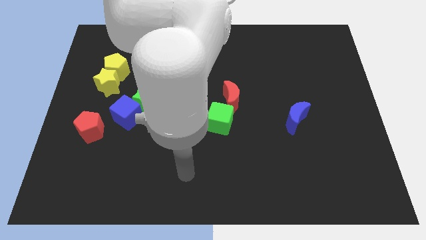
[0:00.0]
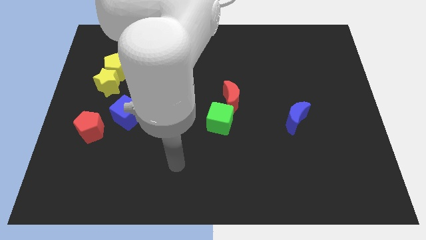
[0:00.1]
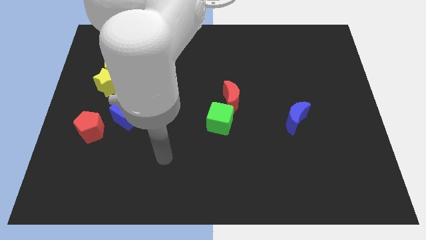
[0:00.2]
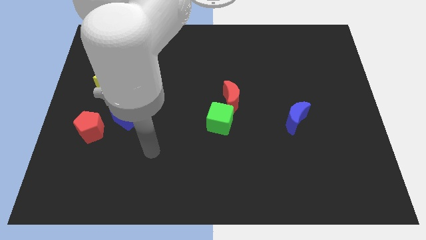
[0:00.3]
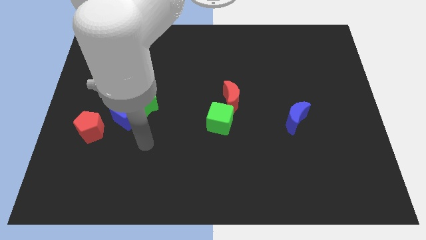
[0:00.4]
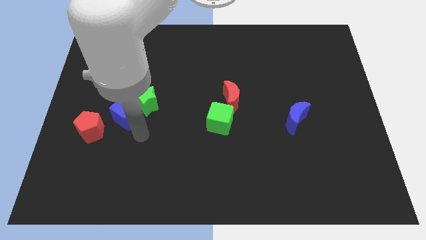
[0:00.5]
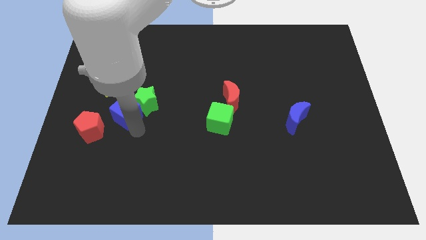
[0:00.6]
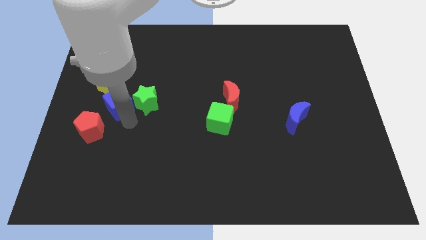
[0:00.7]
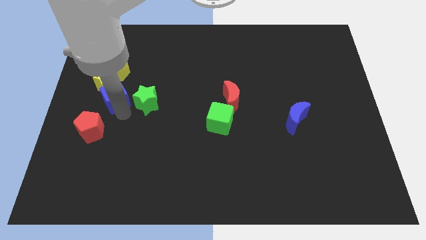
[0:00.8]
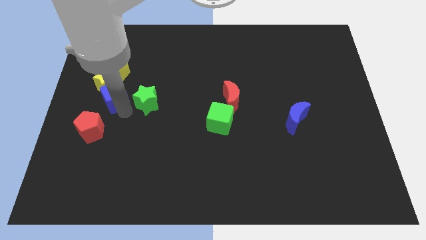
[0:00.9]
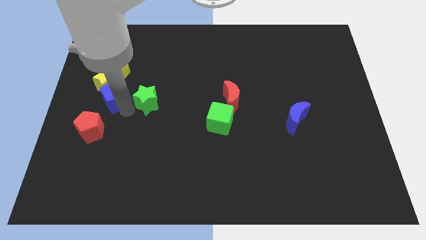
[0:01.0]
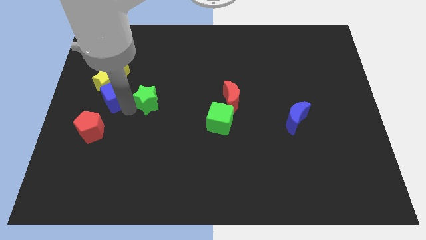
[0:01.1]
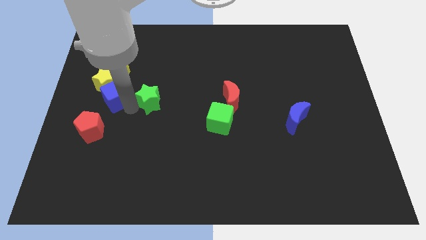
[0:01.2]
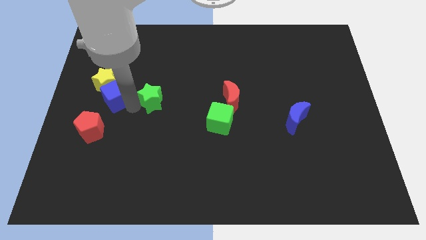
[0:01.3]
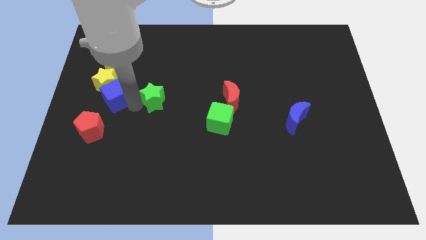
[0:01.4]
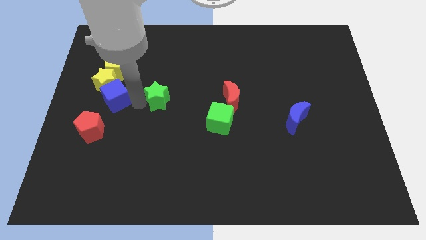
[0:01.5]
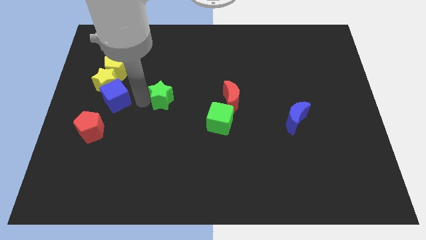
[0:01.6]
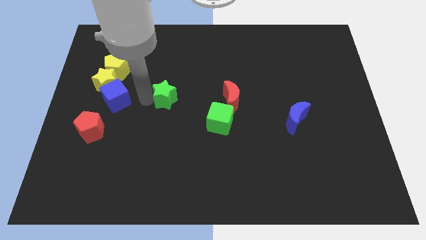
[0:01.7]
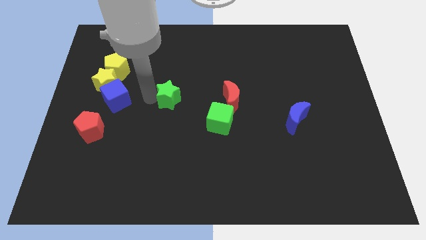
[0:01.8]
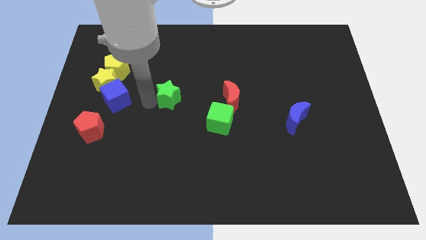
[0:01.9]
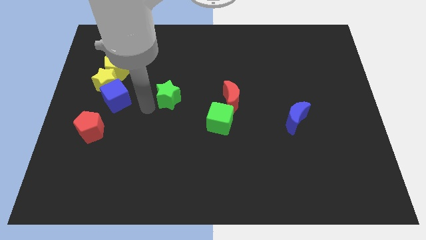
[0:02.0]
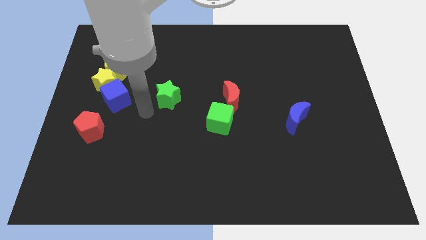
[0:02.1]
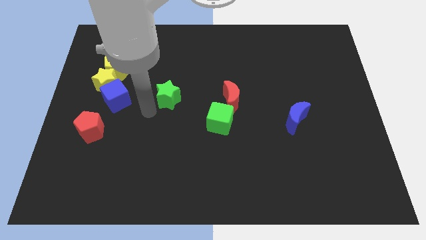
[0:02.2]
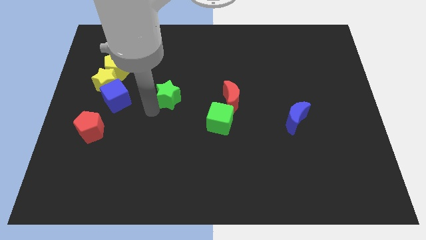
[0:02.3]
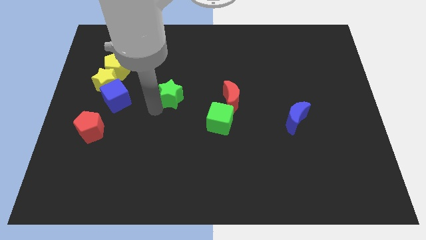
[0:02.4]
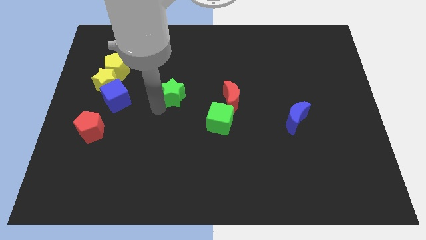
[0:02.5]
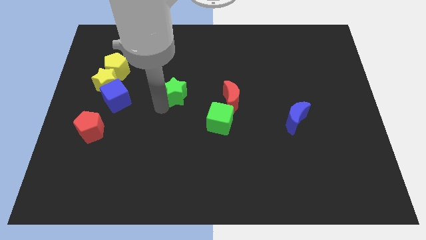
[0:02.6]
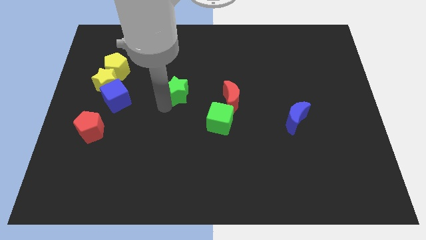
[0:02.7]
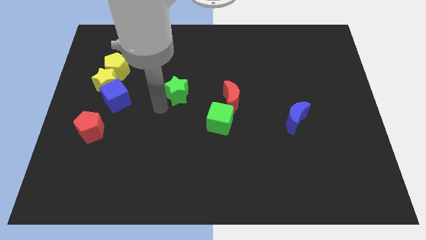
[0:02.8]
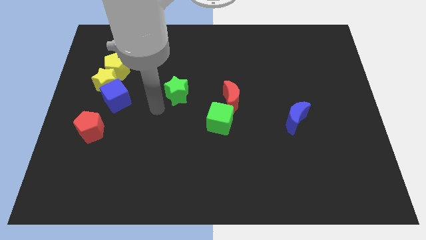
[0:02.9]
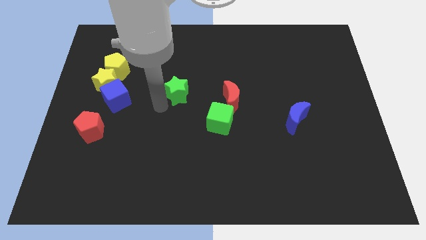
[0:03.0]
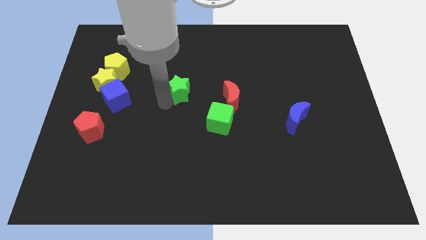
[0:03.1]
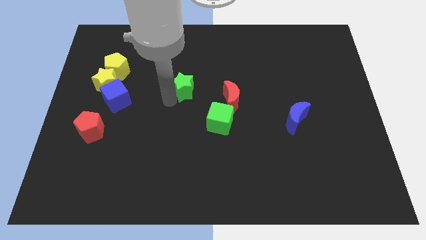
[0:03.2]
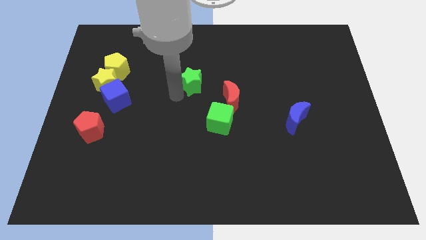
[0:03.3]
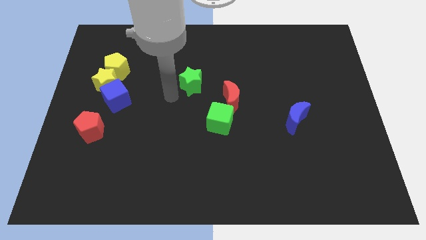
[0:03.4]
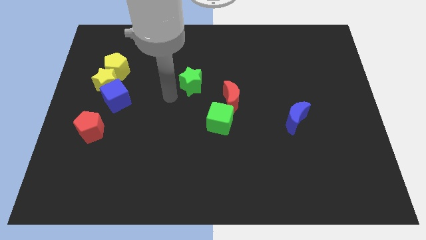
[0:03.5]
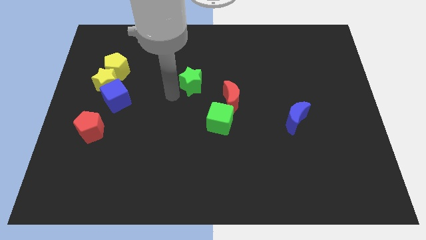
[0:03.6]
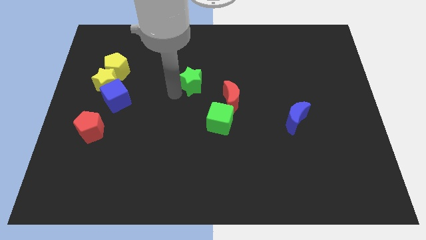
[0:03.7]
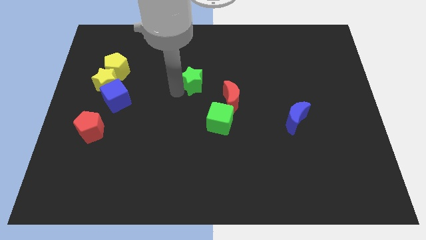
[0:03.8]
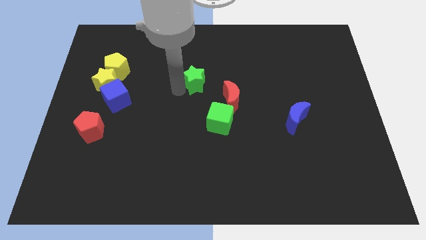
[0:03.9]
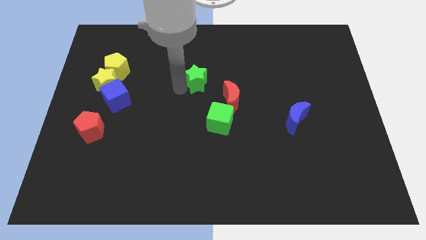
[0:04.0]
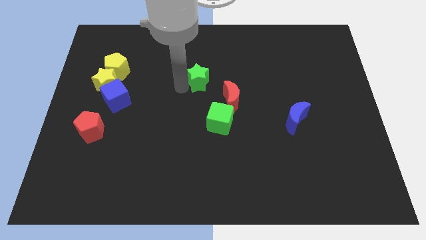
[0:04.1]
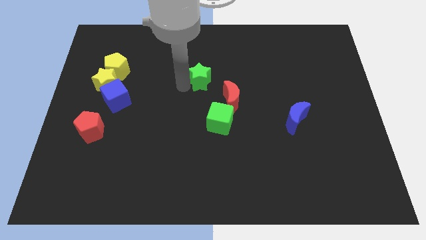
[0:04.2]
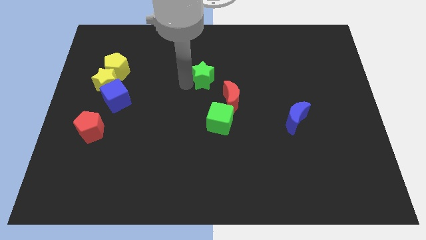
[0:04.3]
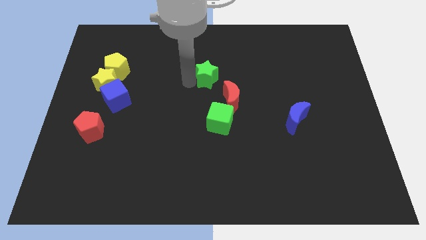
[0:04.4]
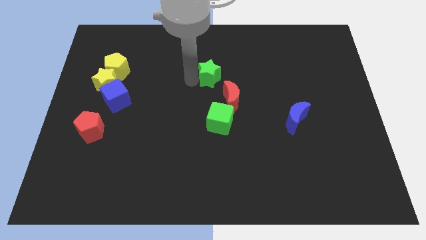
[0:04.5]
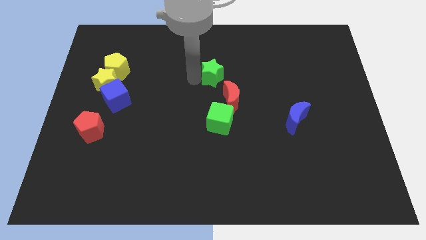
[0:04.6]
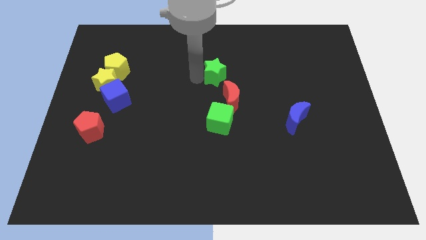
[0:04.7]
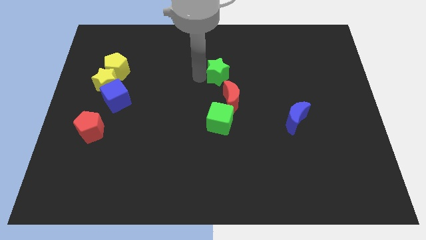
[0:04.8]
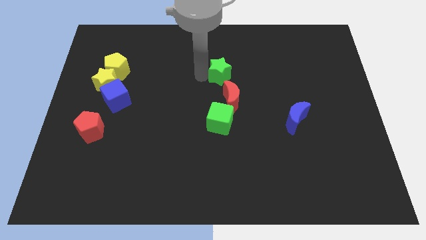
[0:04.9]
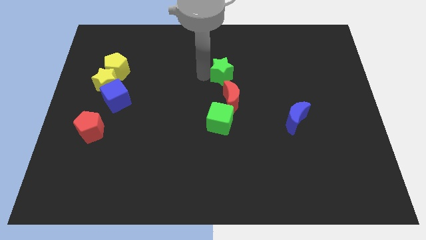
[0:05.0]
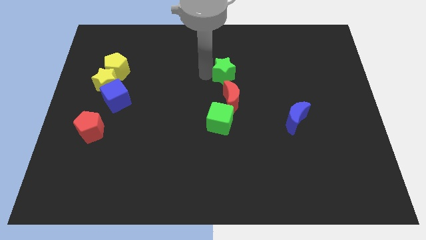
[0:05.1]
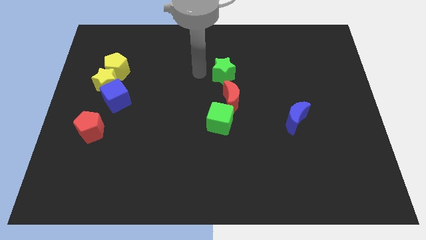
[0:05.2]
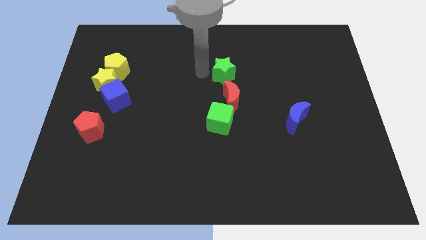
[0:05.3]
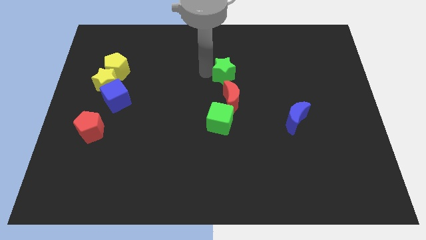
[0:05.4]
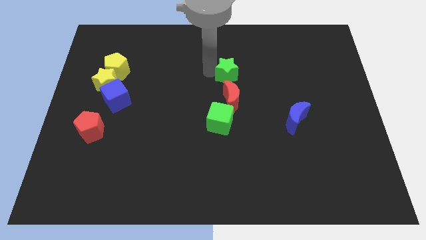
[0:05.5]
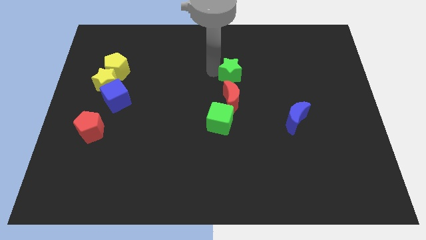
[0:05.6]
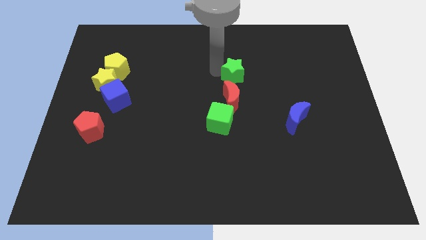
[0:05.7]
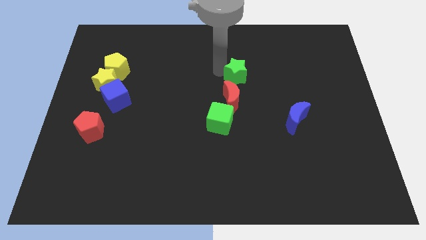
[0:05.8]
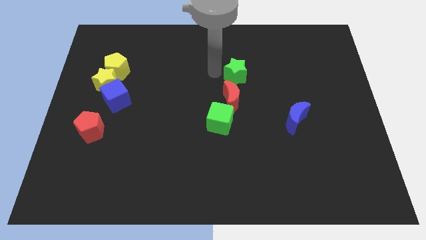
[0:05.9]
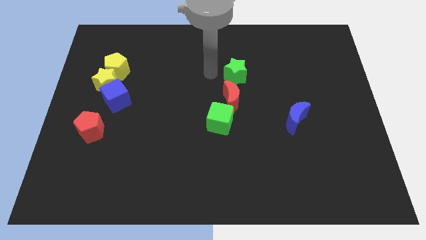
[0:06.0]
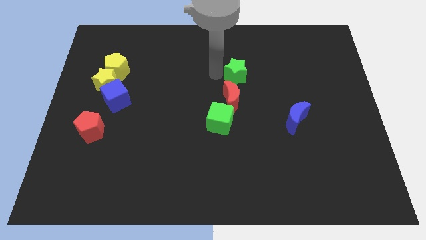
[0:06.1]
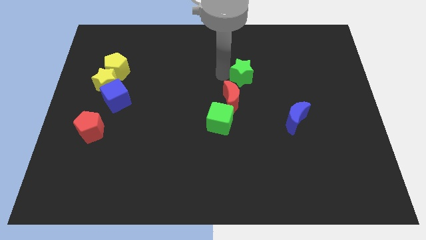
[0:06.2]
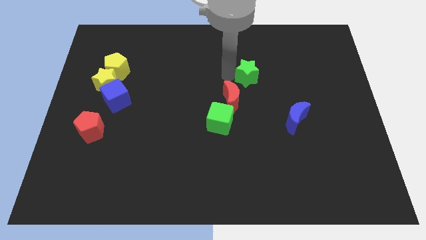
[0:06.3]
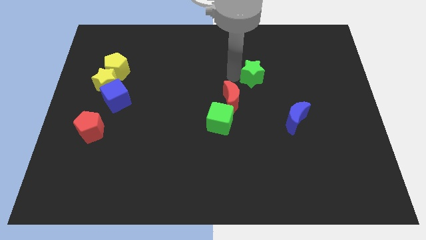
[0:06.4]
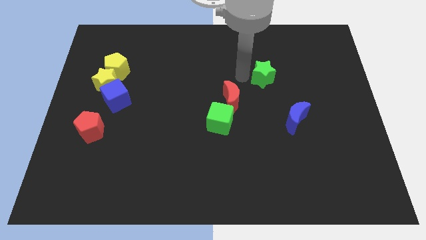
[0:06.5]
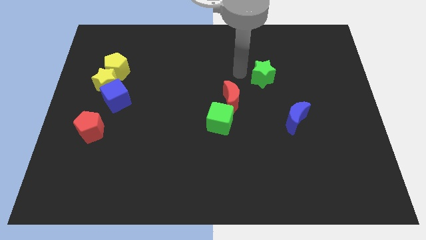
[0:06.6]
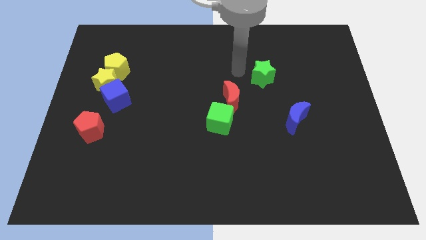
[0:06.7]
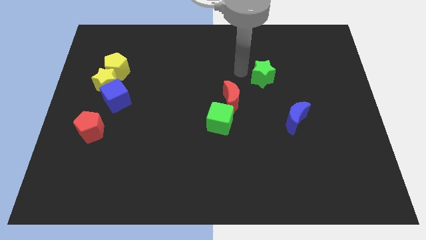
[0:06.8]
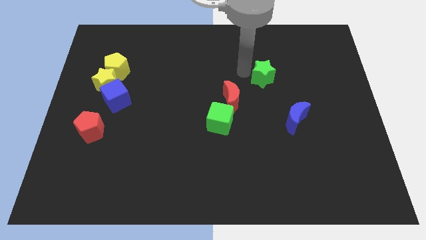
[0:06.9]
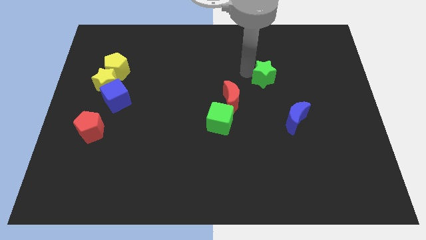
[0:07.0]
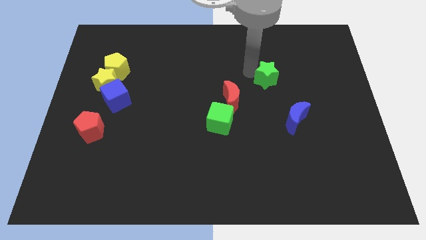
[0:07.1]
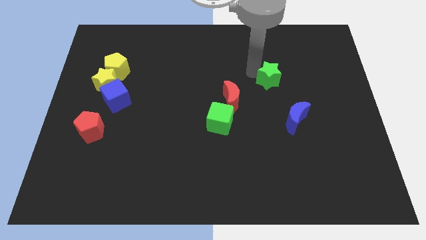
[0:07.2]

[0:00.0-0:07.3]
move the green star to the top of the blue moon
